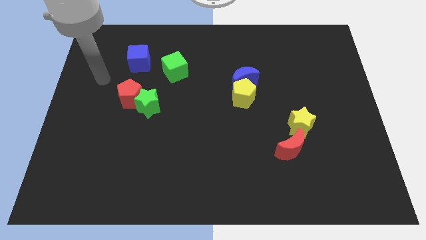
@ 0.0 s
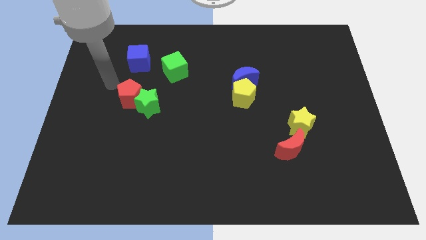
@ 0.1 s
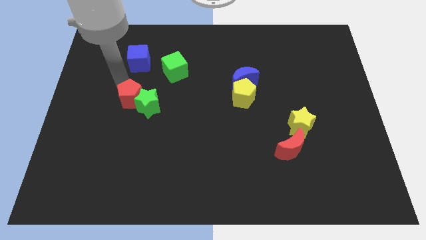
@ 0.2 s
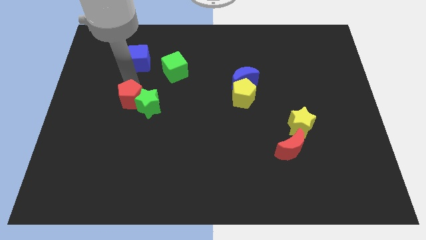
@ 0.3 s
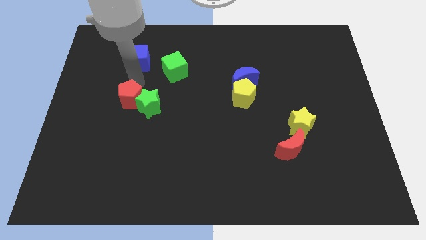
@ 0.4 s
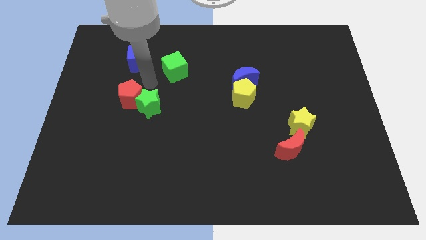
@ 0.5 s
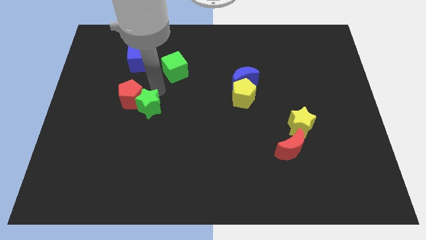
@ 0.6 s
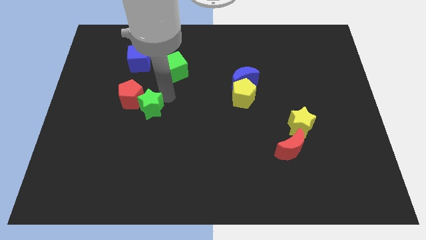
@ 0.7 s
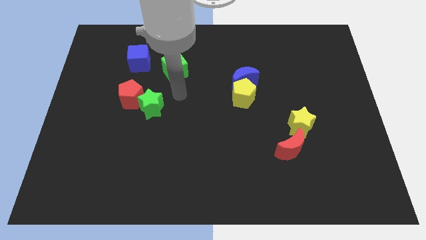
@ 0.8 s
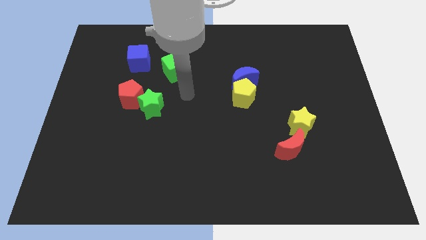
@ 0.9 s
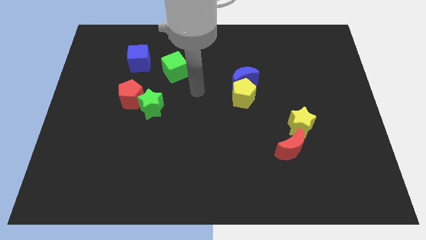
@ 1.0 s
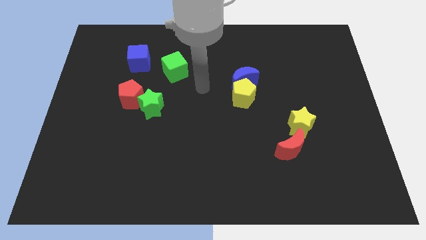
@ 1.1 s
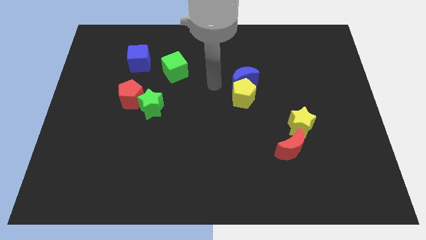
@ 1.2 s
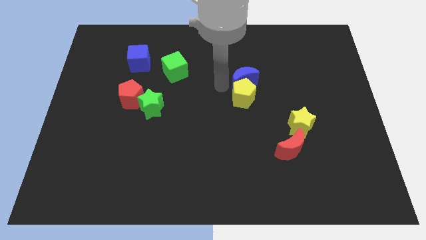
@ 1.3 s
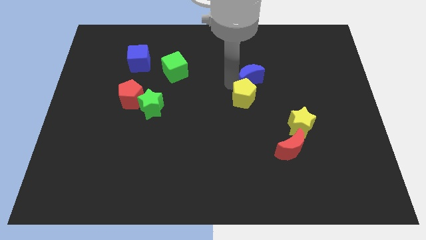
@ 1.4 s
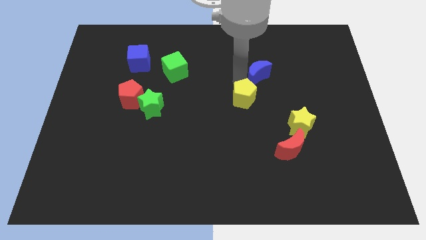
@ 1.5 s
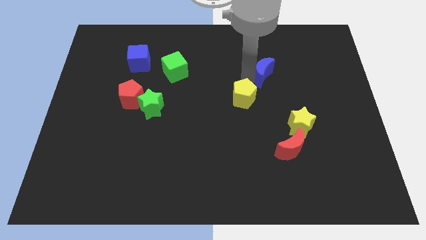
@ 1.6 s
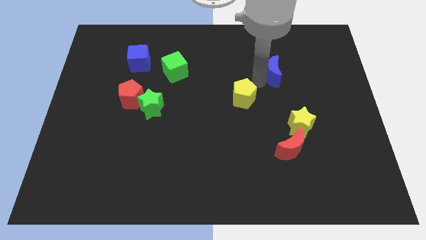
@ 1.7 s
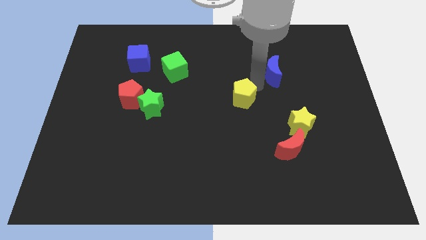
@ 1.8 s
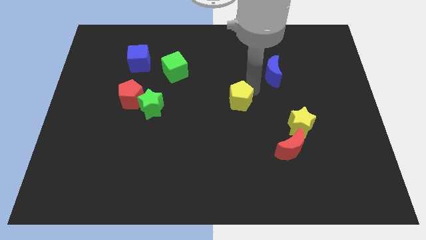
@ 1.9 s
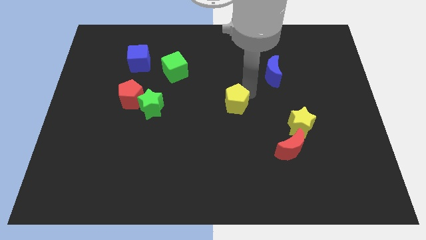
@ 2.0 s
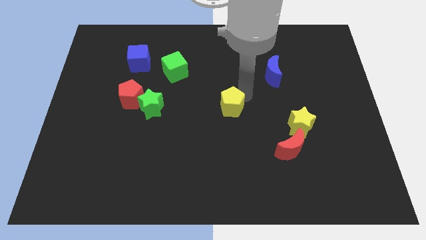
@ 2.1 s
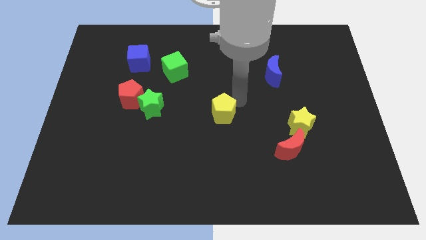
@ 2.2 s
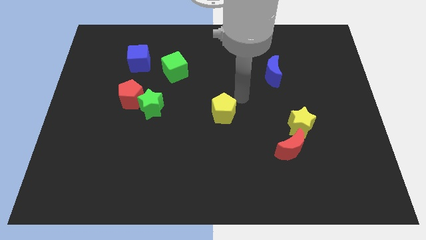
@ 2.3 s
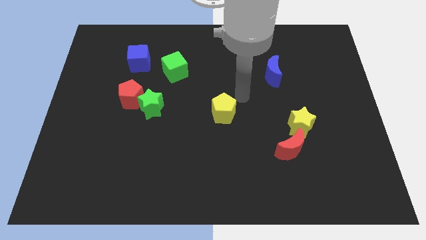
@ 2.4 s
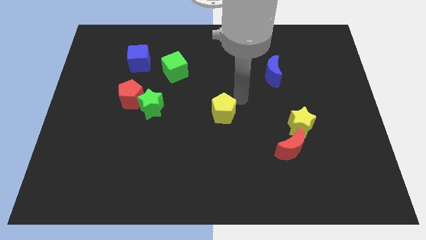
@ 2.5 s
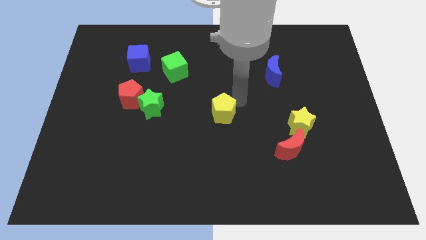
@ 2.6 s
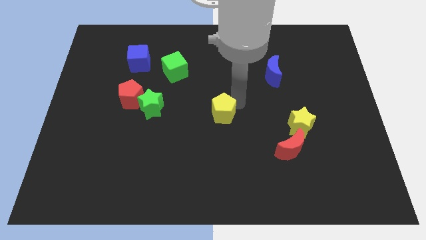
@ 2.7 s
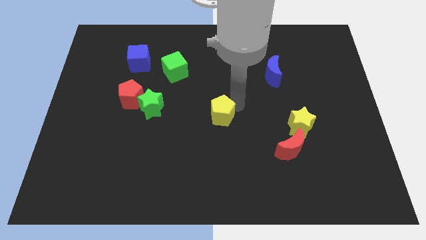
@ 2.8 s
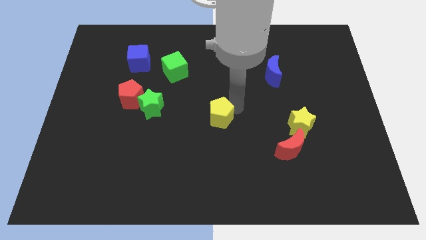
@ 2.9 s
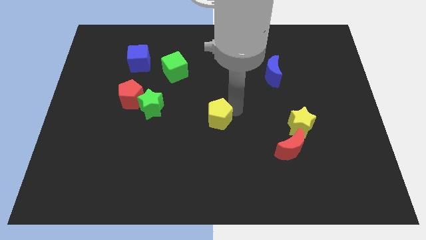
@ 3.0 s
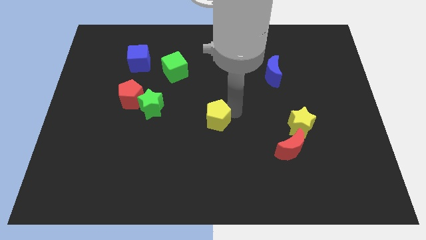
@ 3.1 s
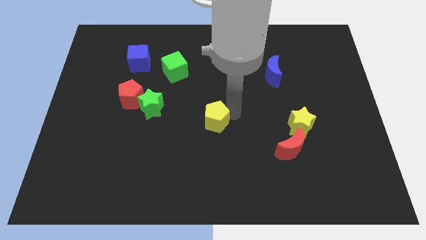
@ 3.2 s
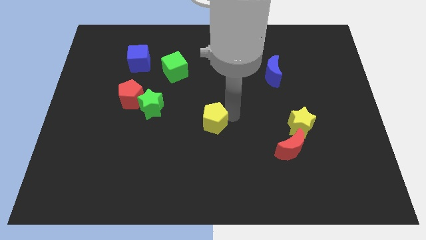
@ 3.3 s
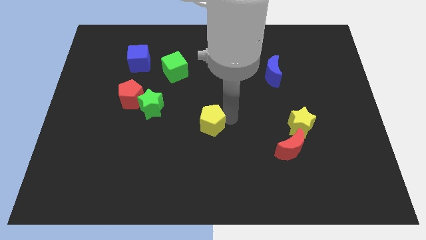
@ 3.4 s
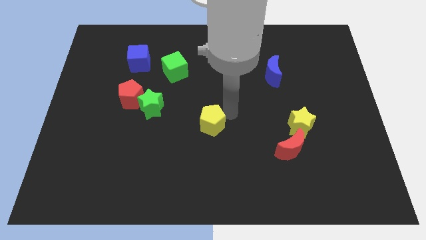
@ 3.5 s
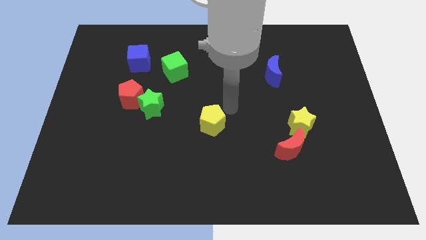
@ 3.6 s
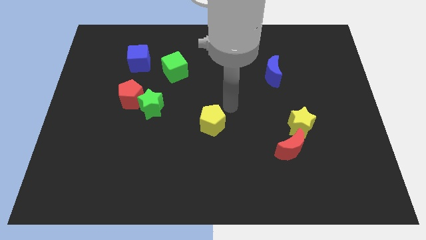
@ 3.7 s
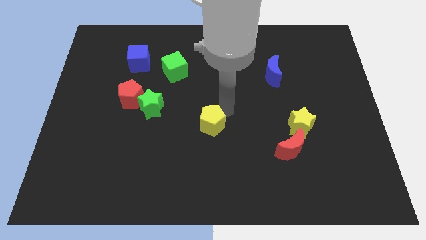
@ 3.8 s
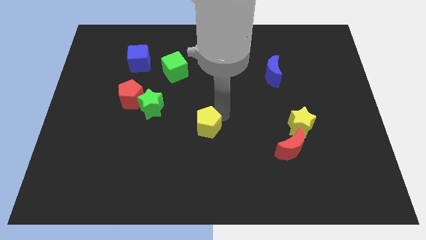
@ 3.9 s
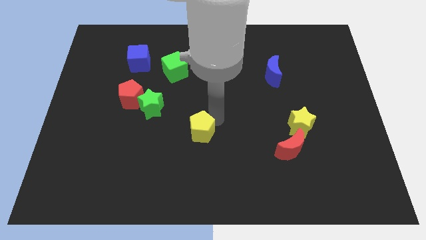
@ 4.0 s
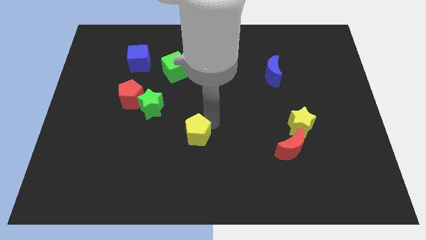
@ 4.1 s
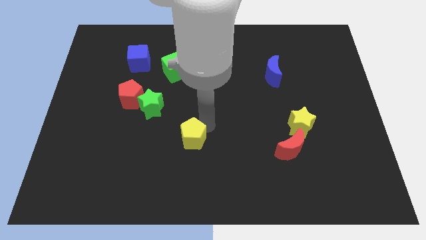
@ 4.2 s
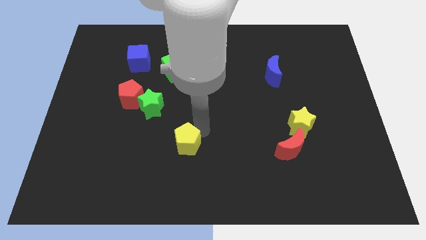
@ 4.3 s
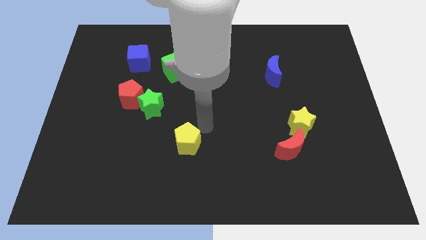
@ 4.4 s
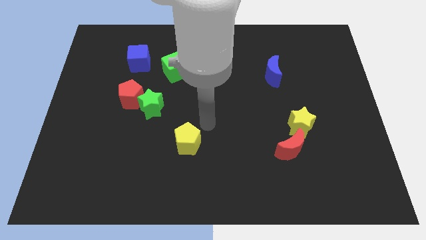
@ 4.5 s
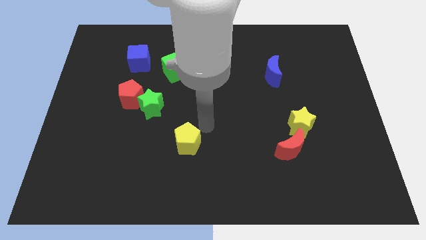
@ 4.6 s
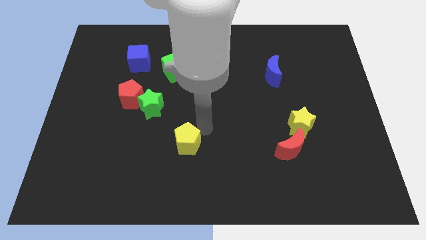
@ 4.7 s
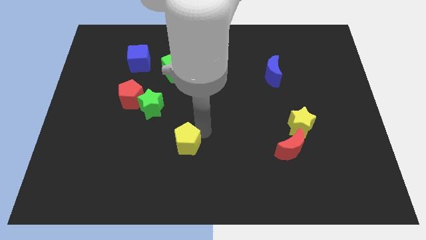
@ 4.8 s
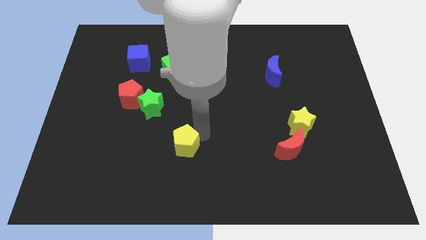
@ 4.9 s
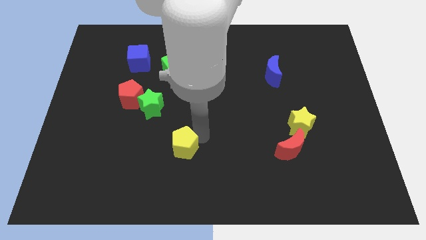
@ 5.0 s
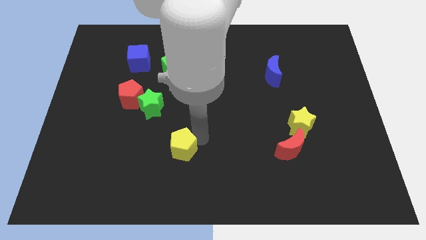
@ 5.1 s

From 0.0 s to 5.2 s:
slide the yellow pentagon downwards and left

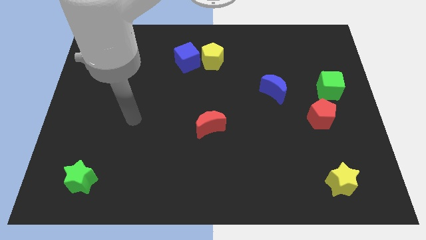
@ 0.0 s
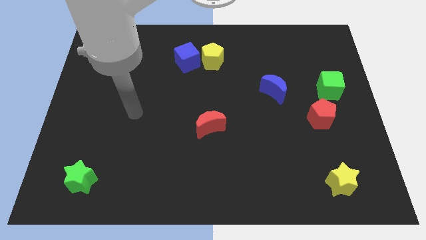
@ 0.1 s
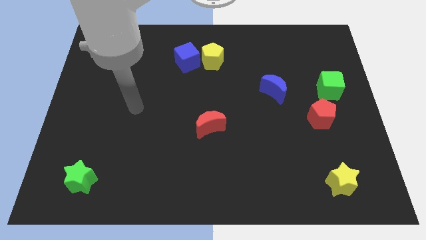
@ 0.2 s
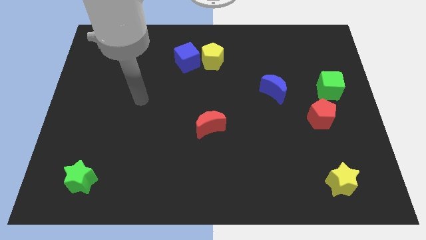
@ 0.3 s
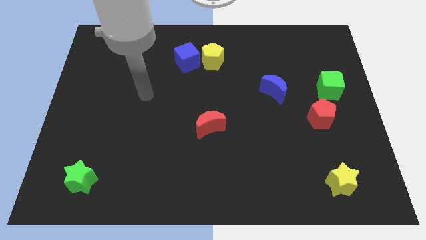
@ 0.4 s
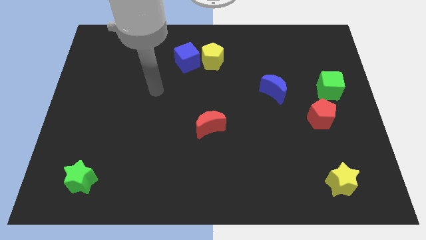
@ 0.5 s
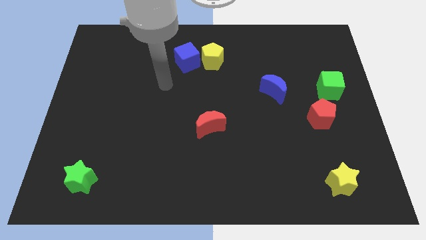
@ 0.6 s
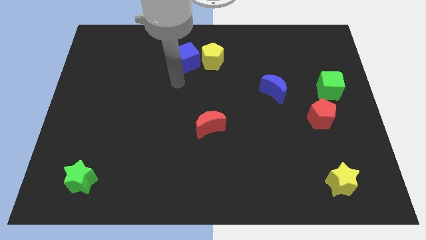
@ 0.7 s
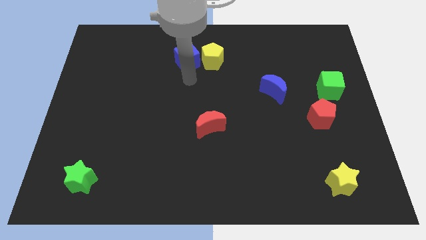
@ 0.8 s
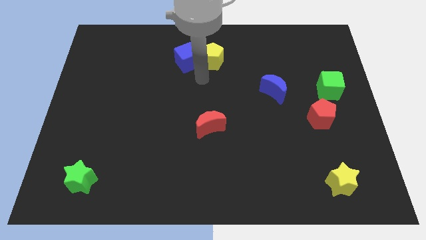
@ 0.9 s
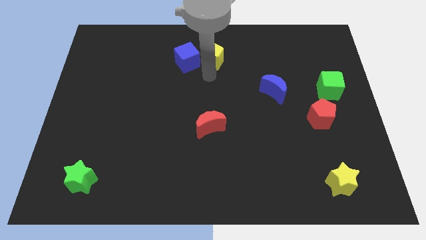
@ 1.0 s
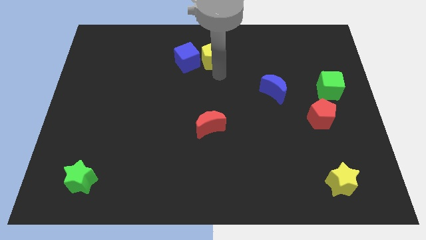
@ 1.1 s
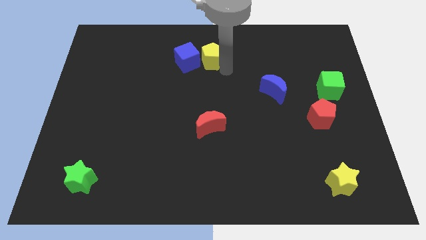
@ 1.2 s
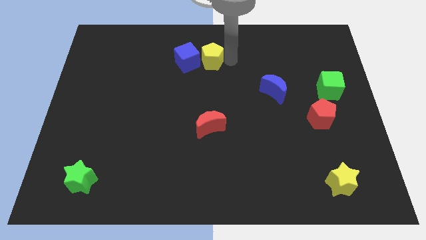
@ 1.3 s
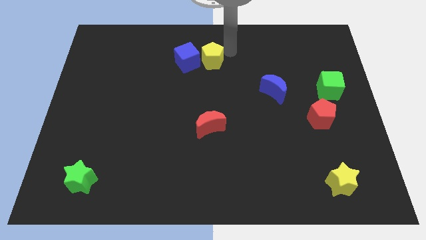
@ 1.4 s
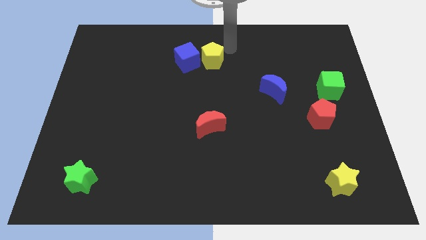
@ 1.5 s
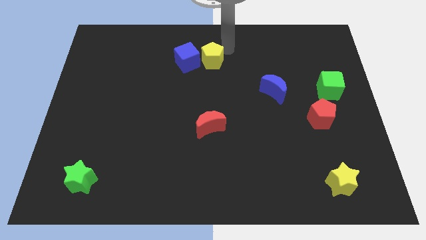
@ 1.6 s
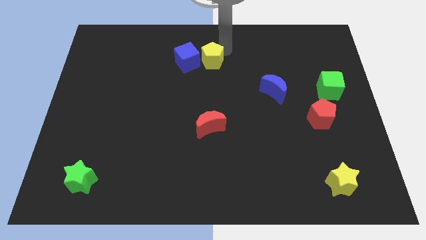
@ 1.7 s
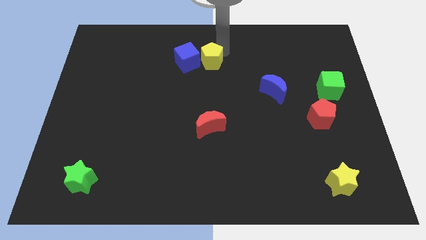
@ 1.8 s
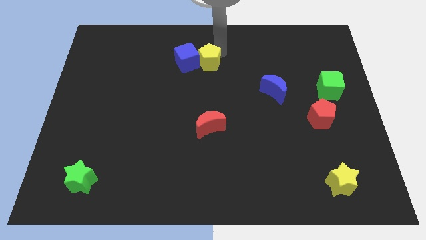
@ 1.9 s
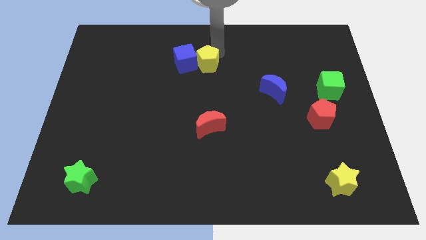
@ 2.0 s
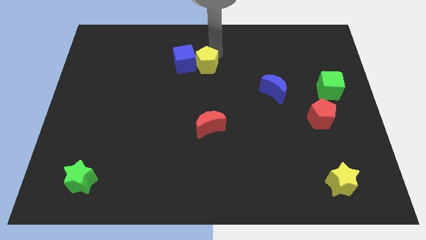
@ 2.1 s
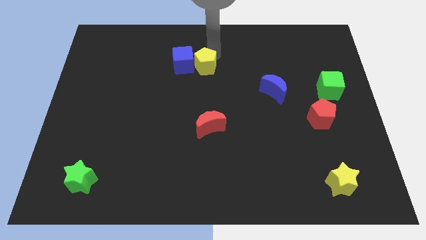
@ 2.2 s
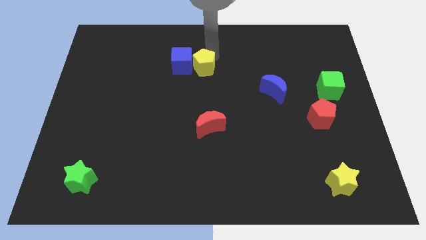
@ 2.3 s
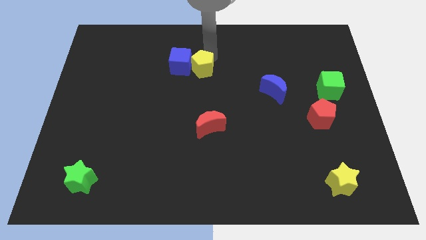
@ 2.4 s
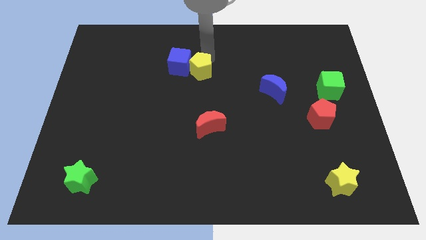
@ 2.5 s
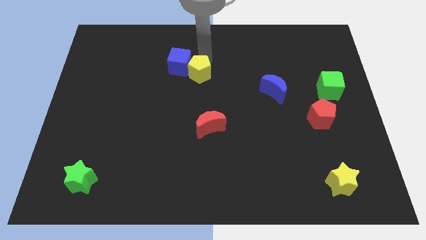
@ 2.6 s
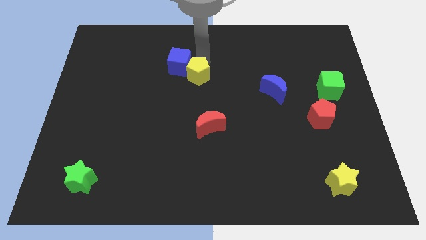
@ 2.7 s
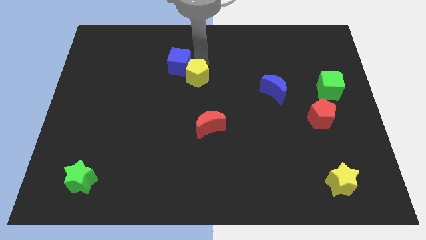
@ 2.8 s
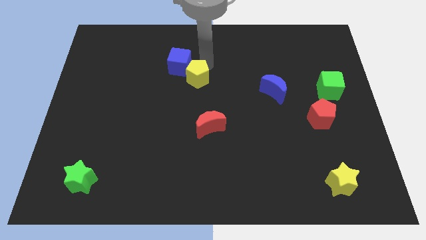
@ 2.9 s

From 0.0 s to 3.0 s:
push the yellow pentagon a bit downwards and left diagonally

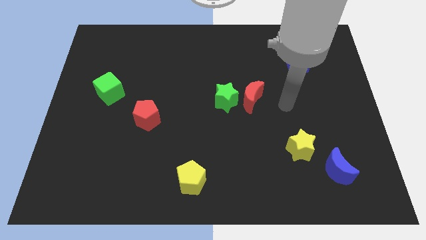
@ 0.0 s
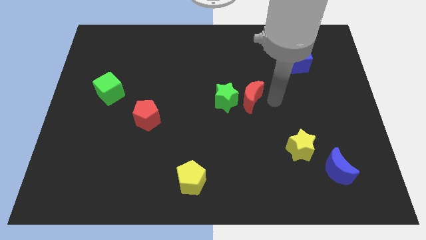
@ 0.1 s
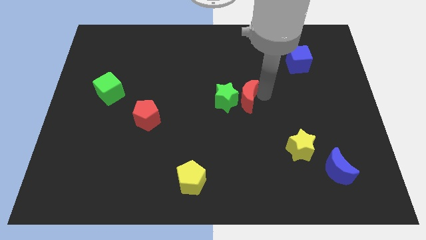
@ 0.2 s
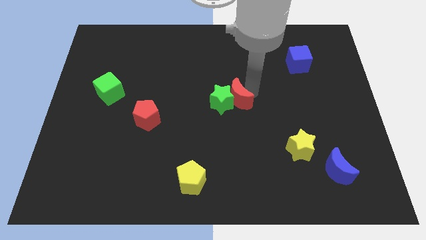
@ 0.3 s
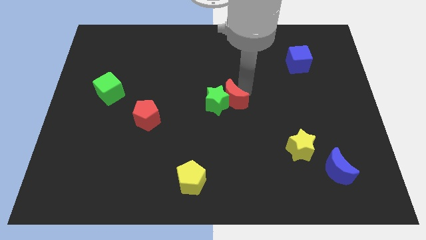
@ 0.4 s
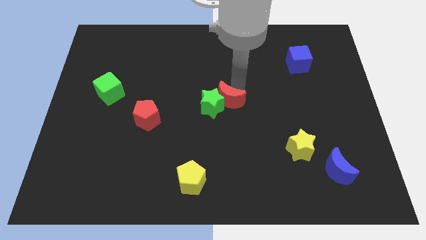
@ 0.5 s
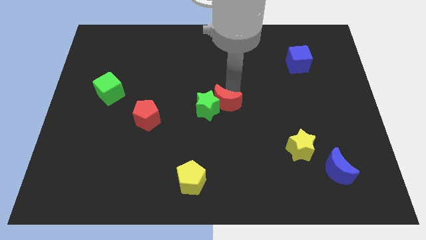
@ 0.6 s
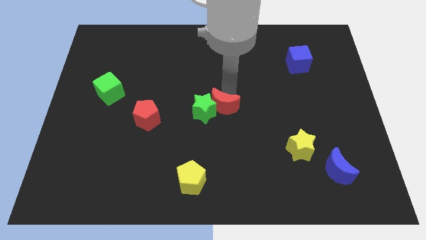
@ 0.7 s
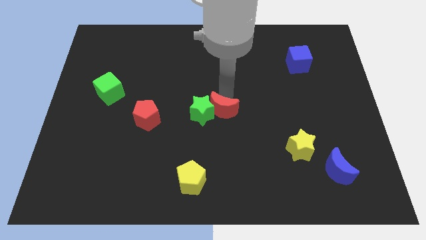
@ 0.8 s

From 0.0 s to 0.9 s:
move the green star a bit diagonally down and to the left
